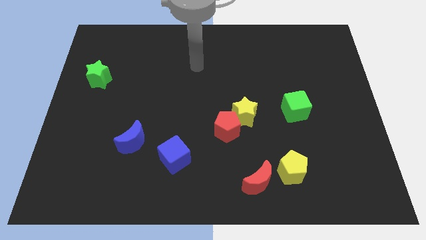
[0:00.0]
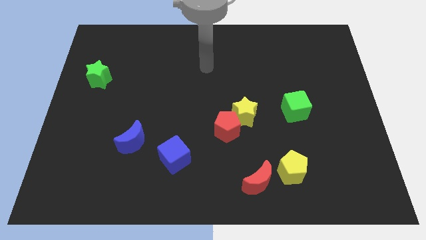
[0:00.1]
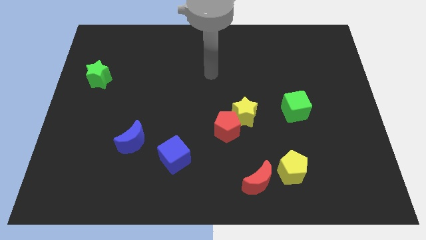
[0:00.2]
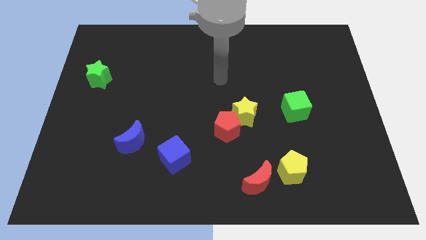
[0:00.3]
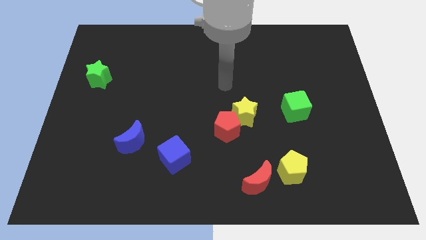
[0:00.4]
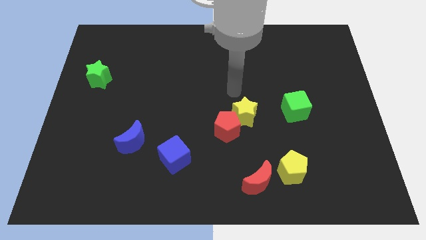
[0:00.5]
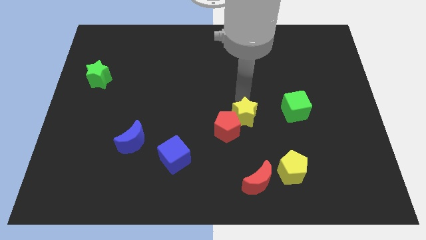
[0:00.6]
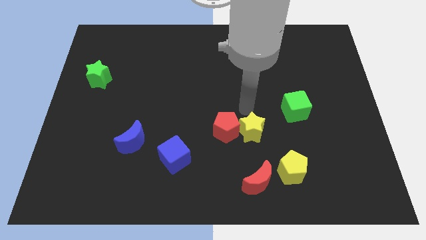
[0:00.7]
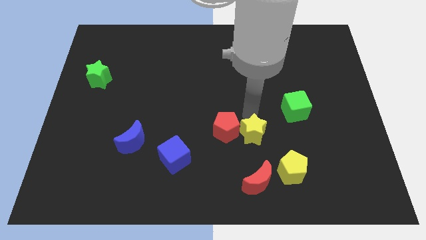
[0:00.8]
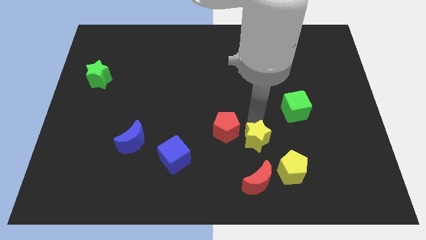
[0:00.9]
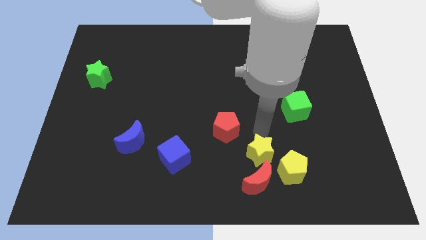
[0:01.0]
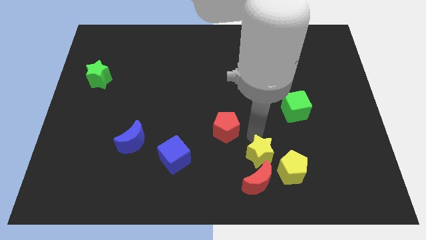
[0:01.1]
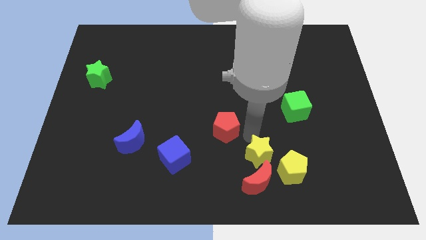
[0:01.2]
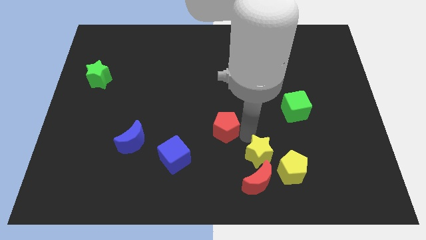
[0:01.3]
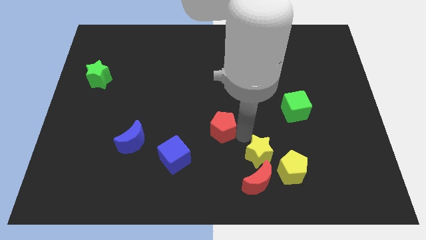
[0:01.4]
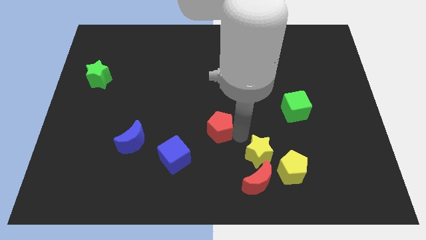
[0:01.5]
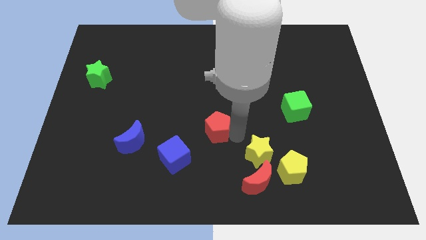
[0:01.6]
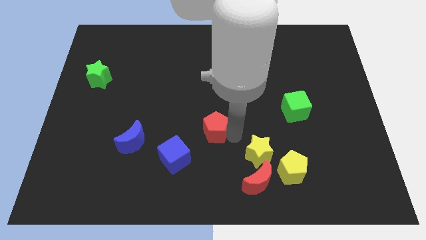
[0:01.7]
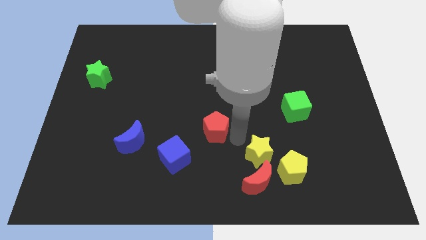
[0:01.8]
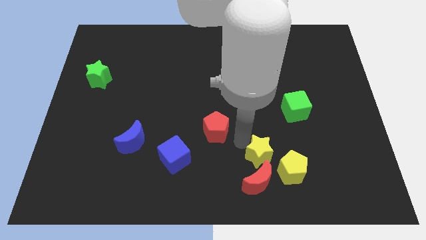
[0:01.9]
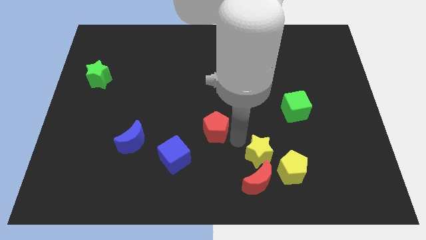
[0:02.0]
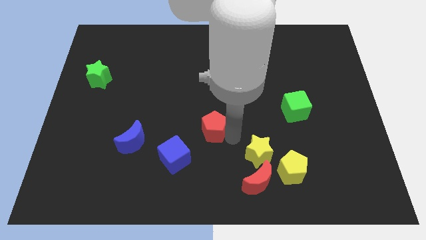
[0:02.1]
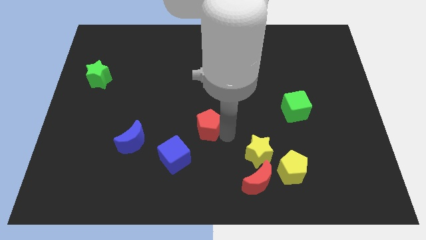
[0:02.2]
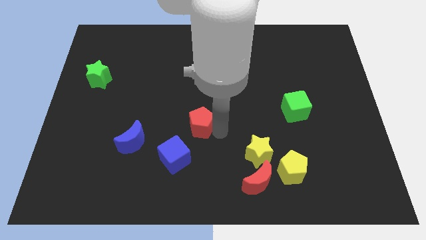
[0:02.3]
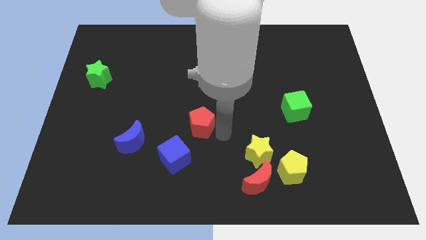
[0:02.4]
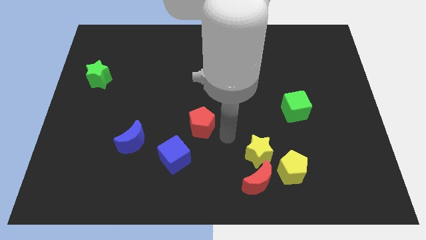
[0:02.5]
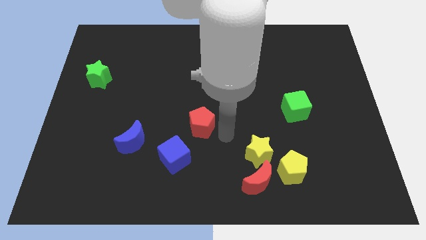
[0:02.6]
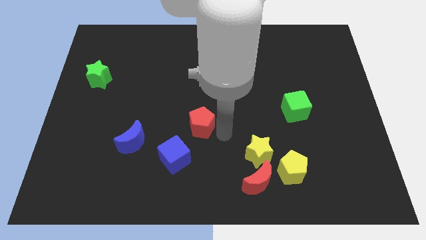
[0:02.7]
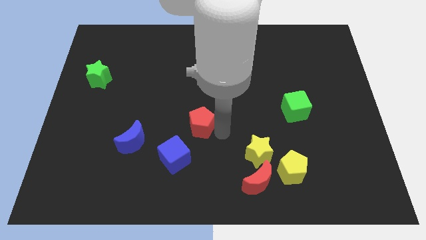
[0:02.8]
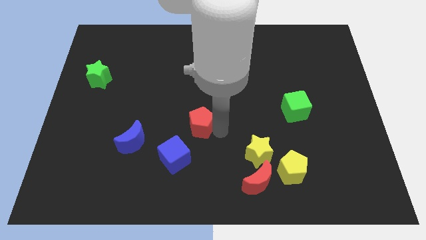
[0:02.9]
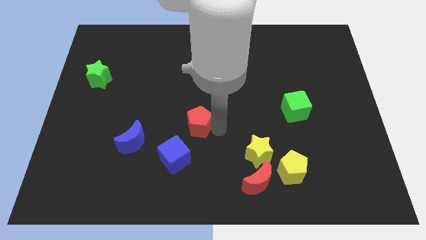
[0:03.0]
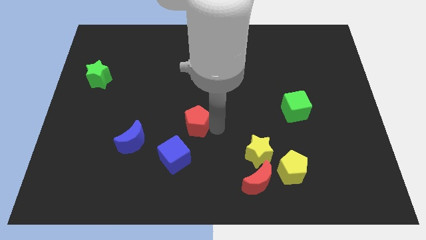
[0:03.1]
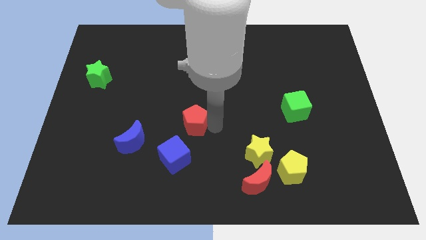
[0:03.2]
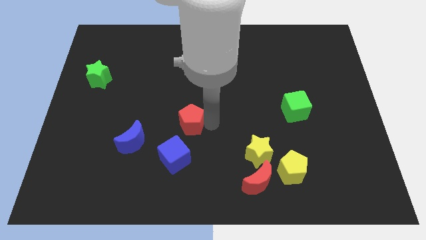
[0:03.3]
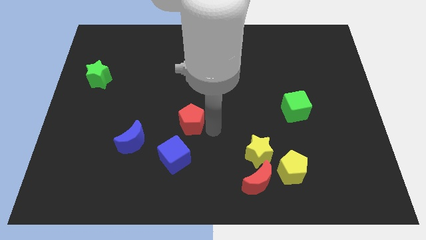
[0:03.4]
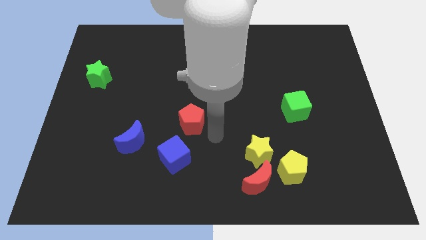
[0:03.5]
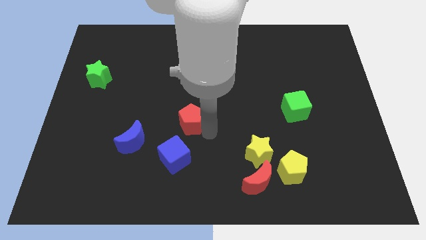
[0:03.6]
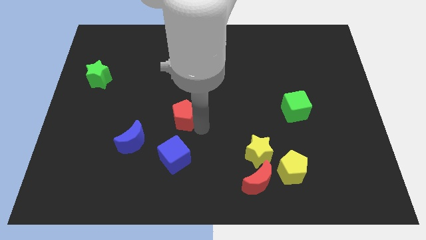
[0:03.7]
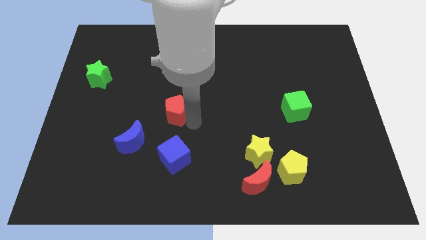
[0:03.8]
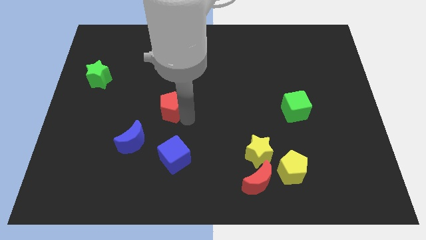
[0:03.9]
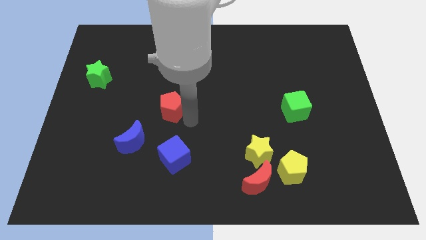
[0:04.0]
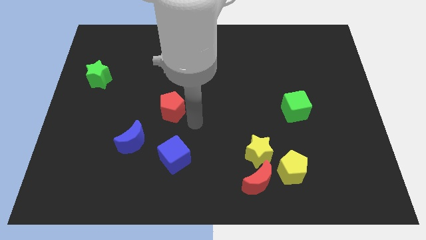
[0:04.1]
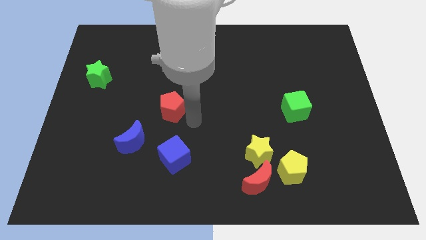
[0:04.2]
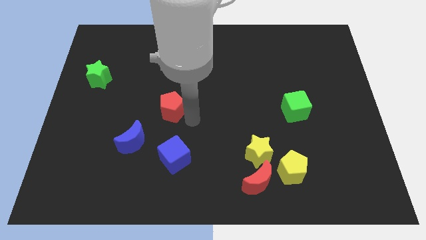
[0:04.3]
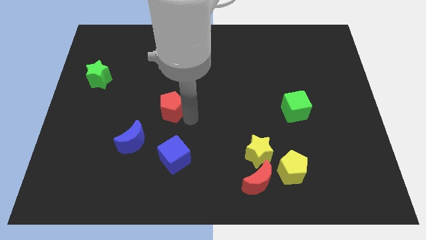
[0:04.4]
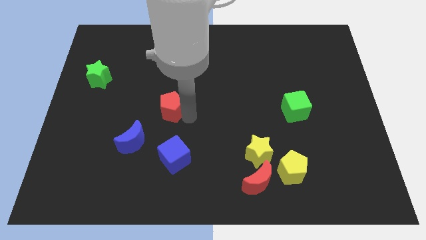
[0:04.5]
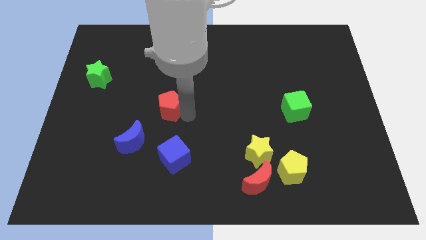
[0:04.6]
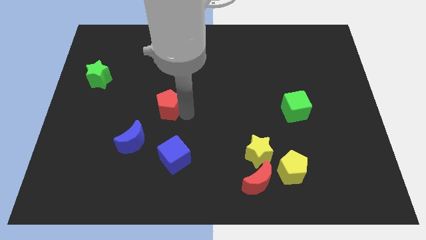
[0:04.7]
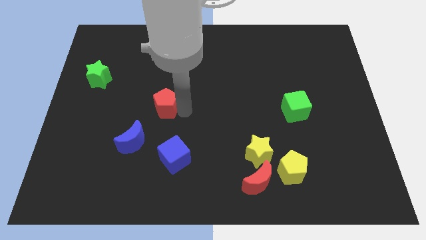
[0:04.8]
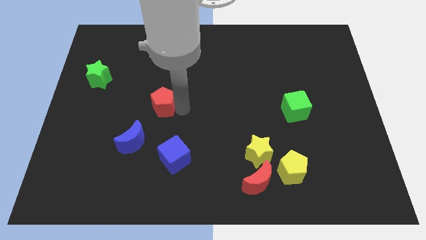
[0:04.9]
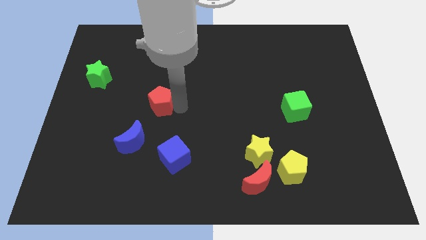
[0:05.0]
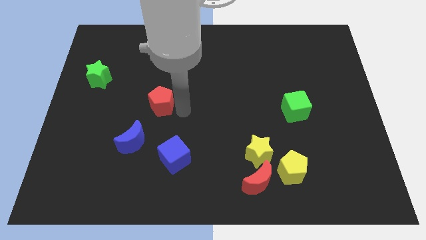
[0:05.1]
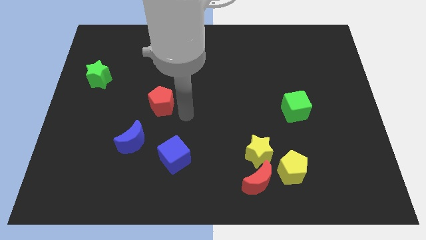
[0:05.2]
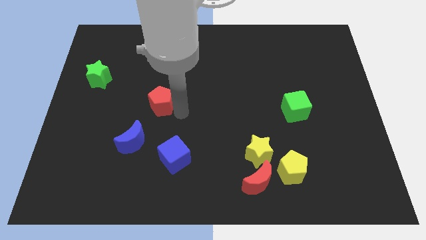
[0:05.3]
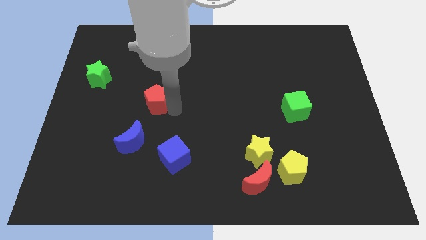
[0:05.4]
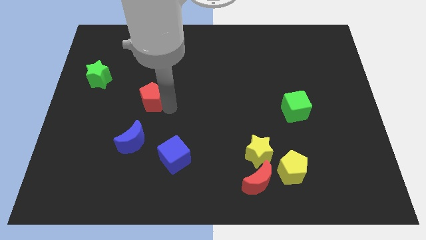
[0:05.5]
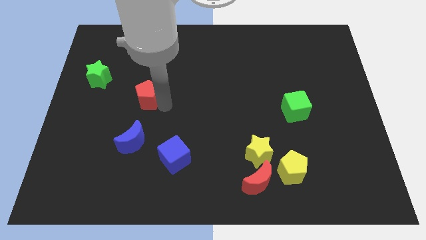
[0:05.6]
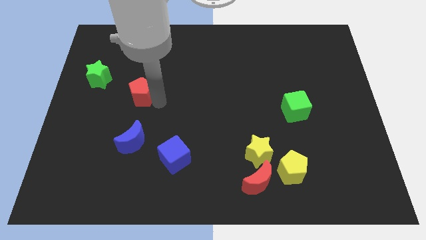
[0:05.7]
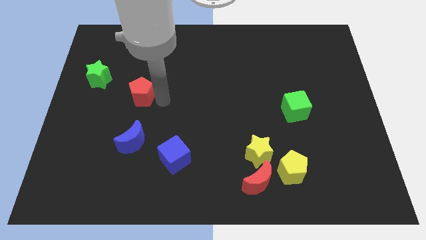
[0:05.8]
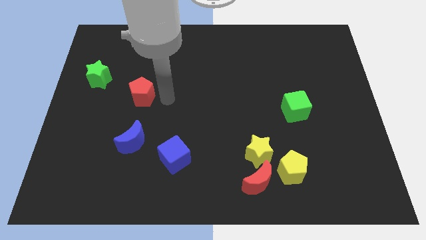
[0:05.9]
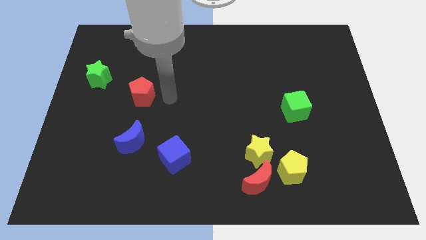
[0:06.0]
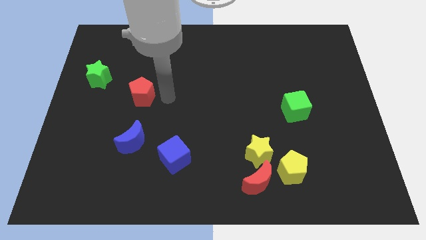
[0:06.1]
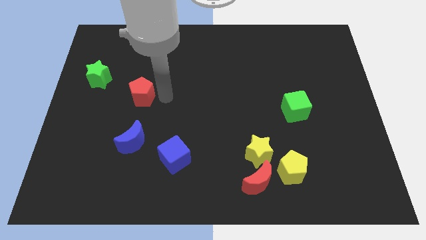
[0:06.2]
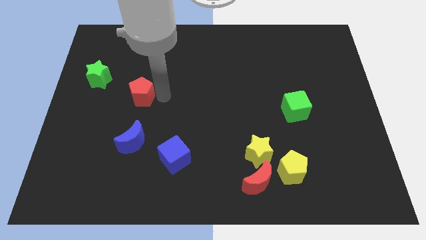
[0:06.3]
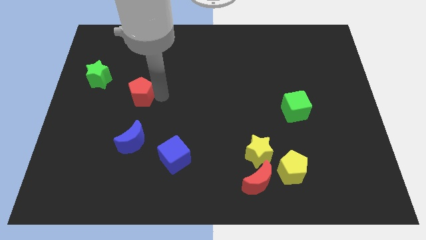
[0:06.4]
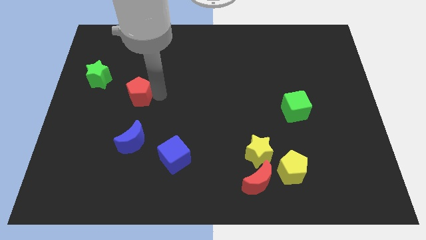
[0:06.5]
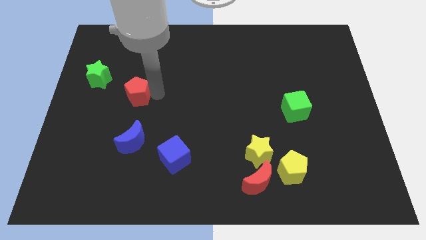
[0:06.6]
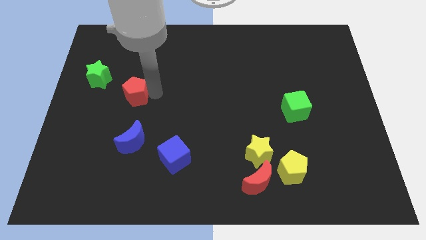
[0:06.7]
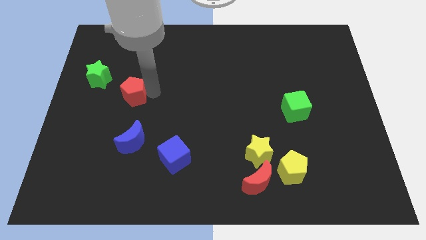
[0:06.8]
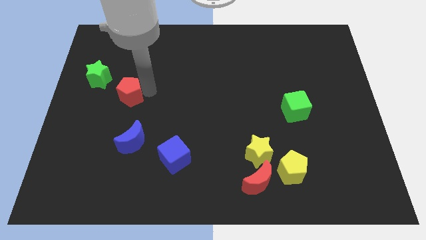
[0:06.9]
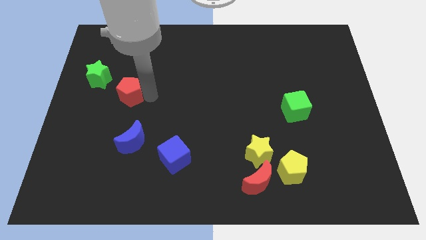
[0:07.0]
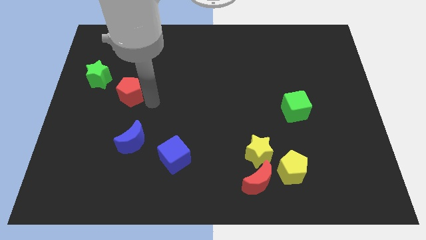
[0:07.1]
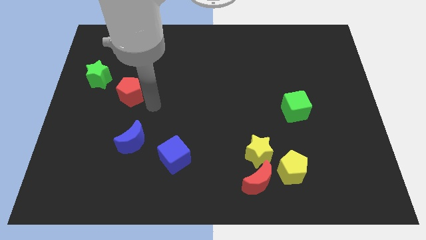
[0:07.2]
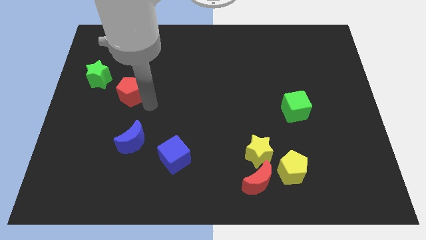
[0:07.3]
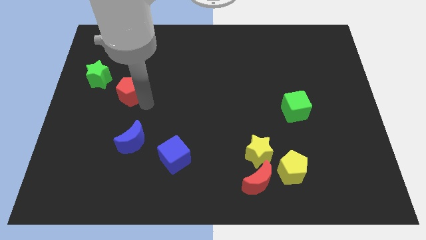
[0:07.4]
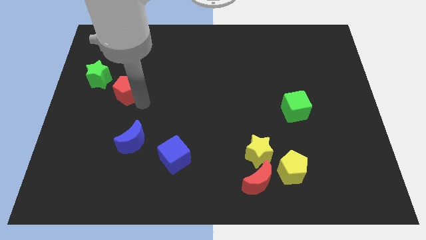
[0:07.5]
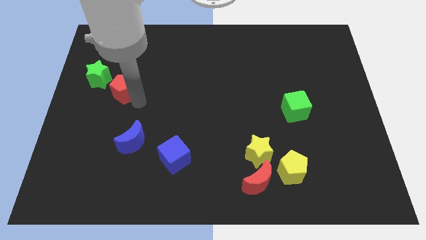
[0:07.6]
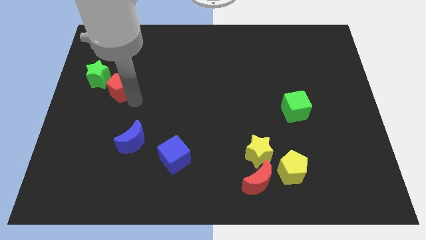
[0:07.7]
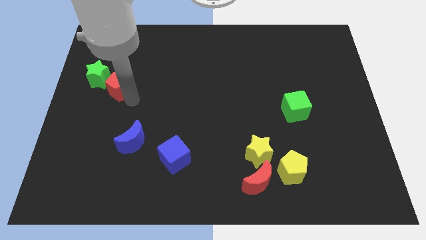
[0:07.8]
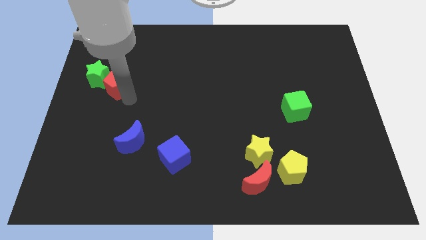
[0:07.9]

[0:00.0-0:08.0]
slide the red pentagon to the green star
